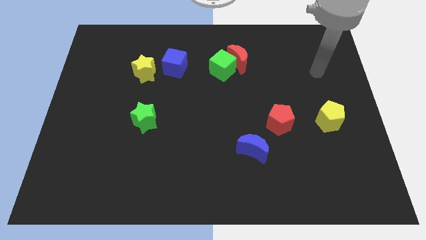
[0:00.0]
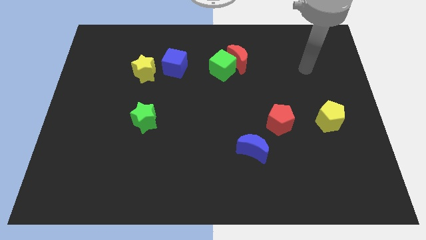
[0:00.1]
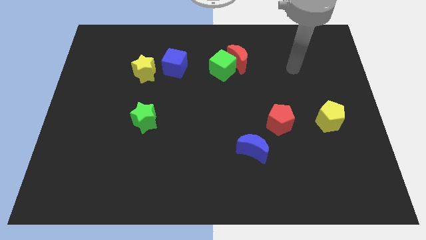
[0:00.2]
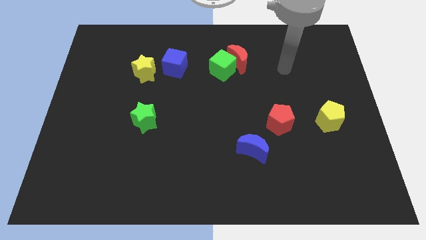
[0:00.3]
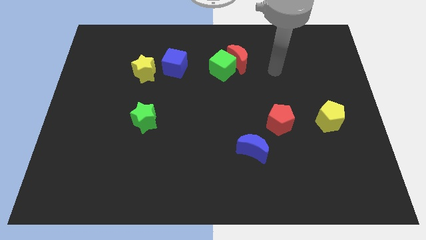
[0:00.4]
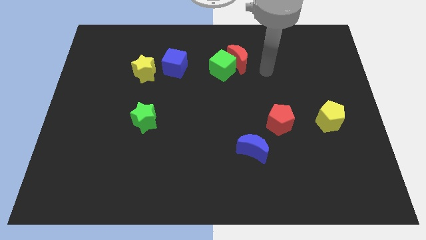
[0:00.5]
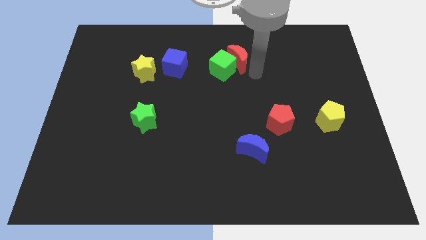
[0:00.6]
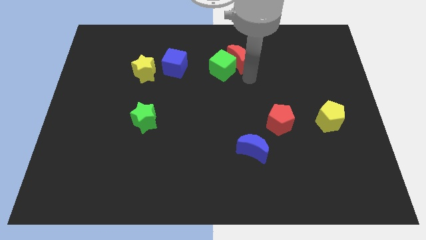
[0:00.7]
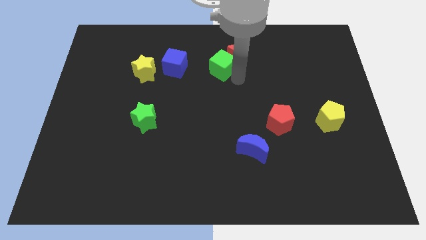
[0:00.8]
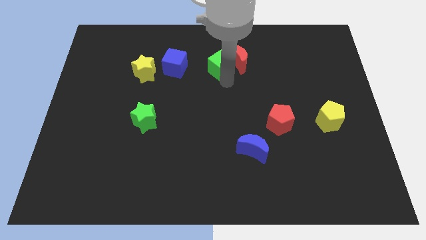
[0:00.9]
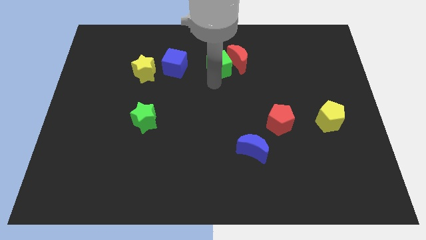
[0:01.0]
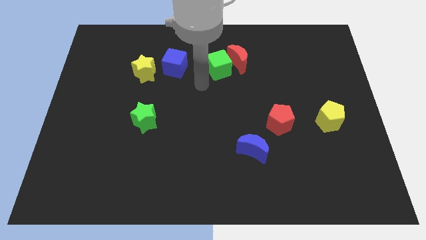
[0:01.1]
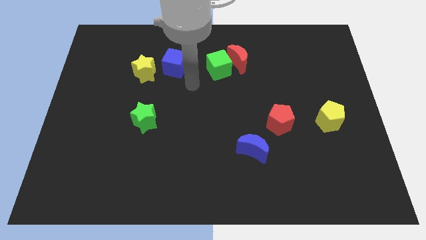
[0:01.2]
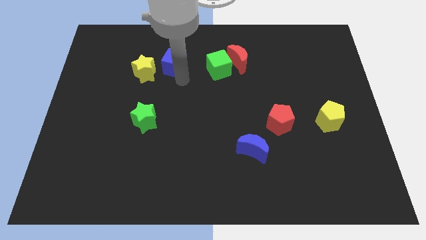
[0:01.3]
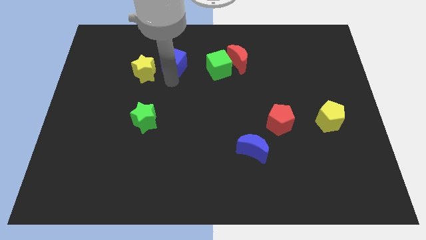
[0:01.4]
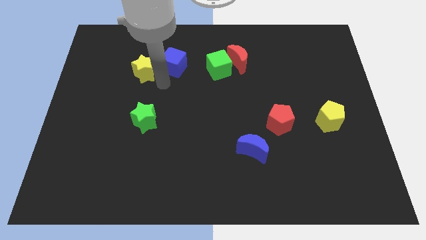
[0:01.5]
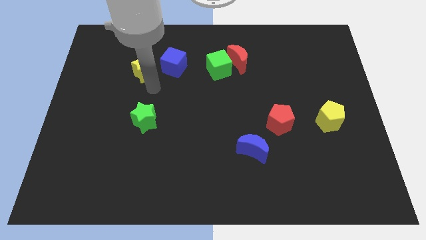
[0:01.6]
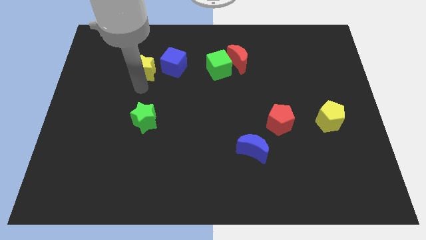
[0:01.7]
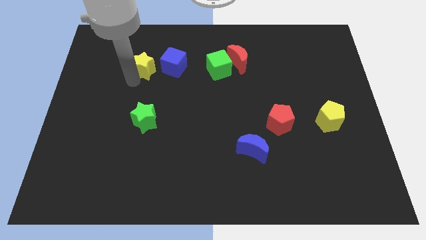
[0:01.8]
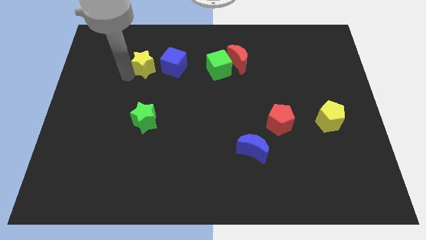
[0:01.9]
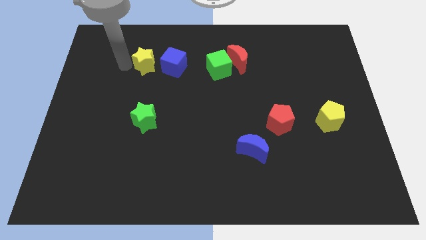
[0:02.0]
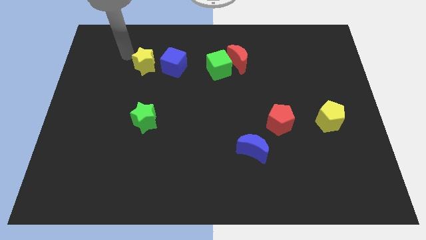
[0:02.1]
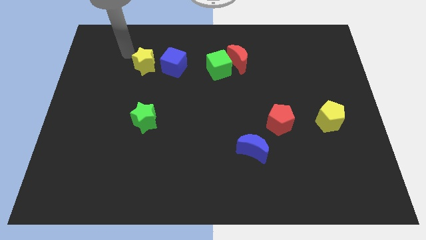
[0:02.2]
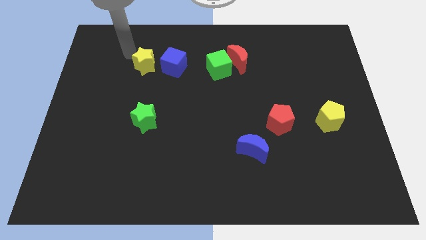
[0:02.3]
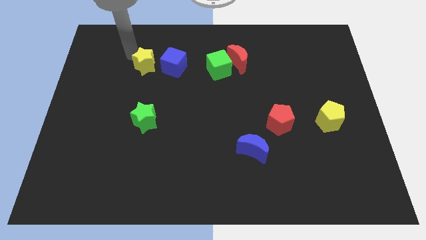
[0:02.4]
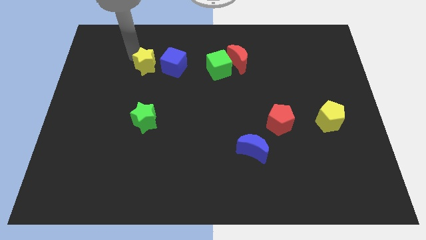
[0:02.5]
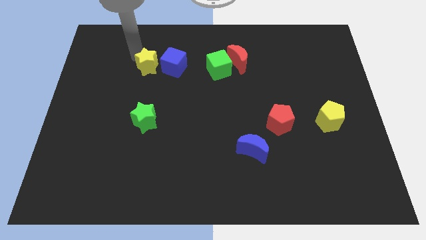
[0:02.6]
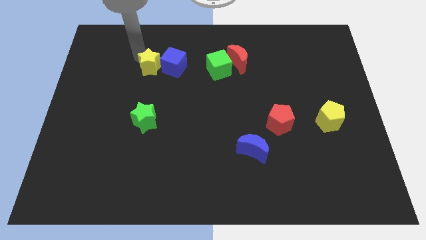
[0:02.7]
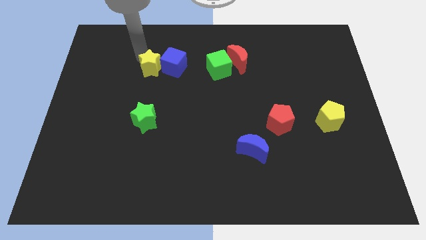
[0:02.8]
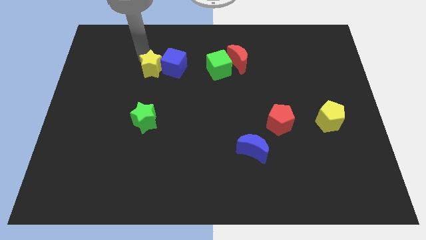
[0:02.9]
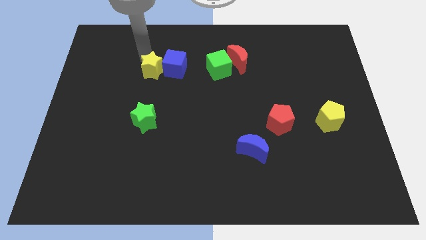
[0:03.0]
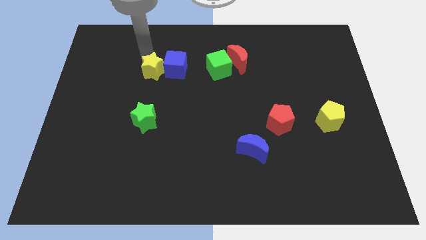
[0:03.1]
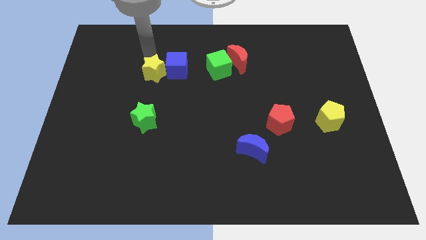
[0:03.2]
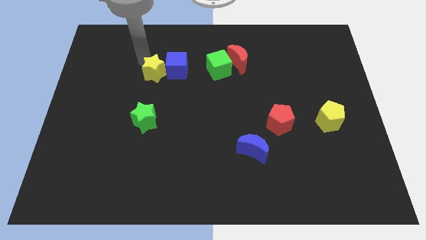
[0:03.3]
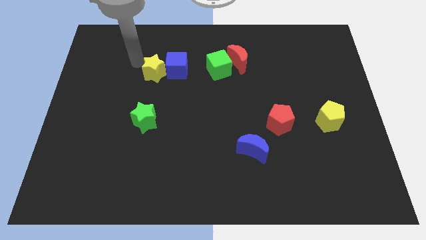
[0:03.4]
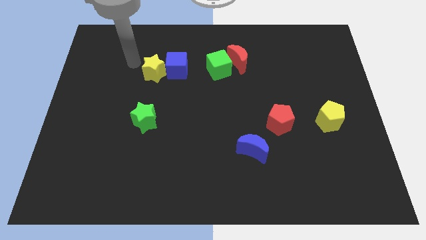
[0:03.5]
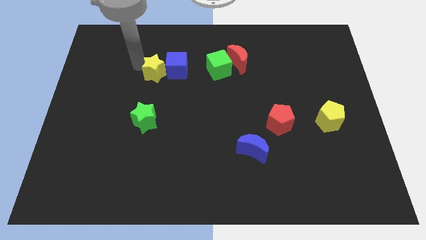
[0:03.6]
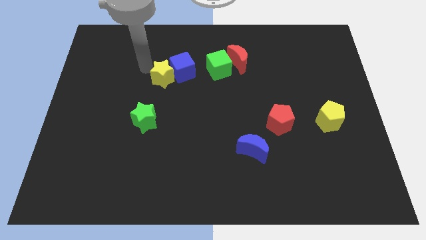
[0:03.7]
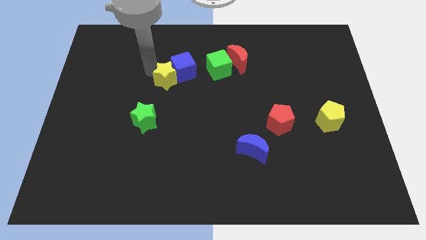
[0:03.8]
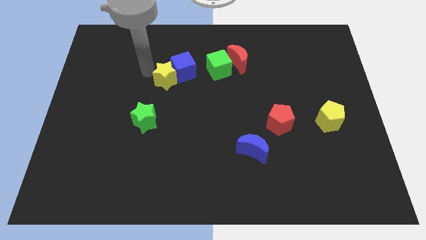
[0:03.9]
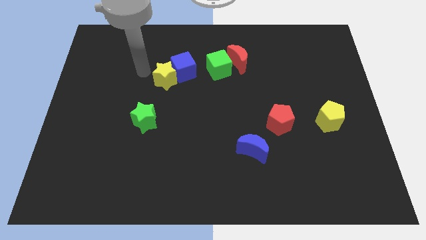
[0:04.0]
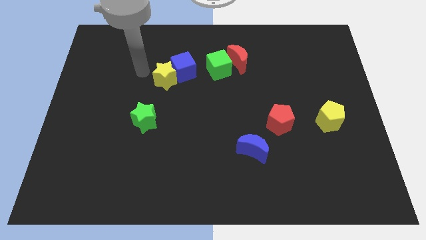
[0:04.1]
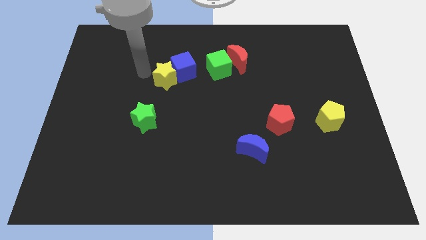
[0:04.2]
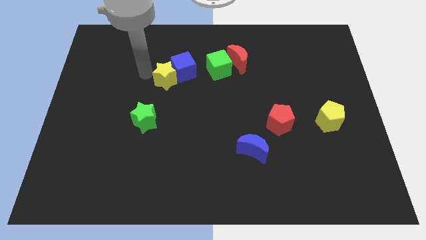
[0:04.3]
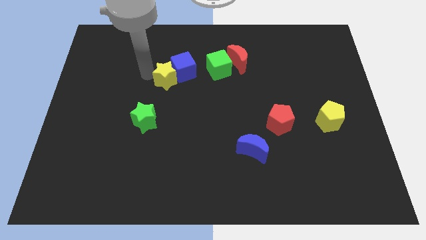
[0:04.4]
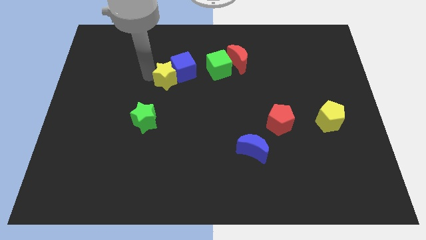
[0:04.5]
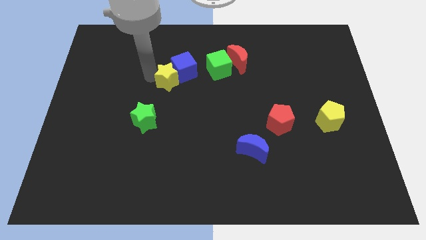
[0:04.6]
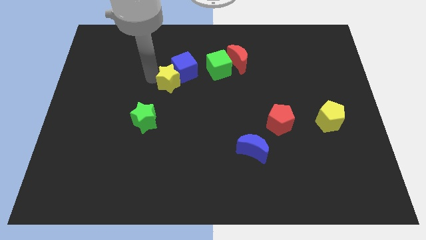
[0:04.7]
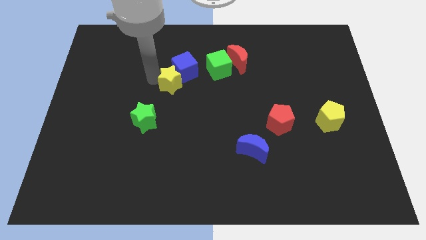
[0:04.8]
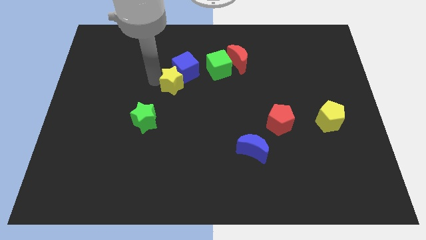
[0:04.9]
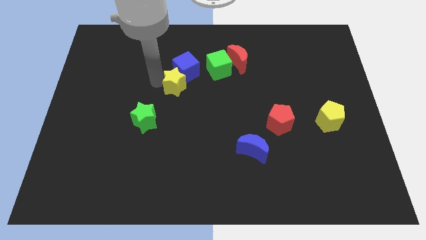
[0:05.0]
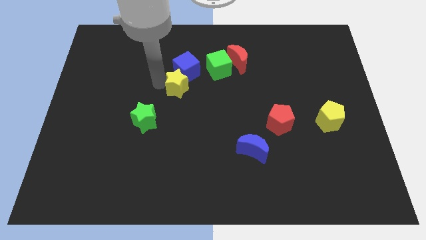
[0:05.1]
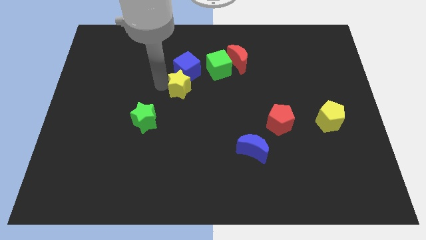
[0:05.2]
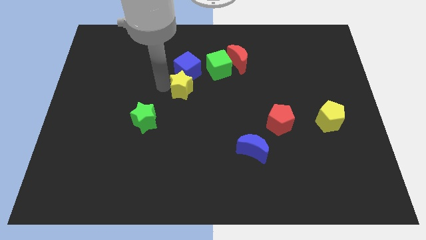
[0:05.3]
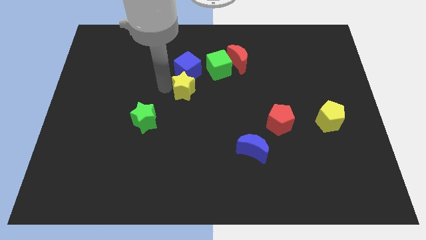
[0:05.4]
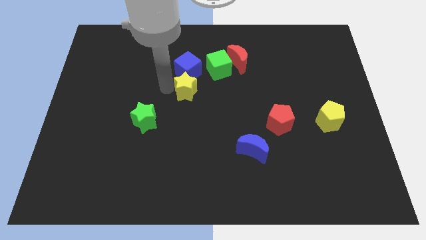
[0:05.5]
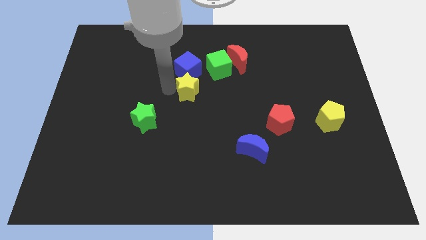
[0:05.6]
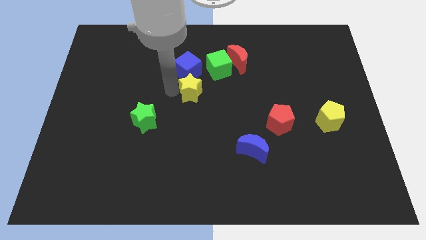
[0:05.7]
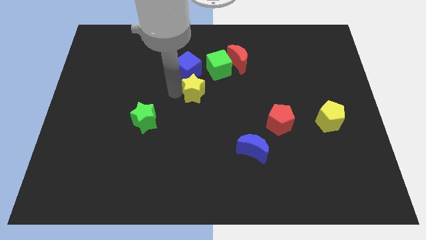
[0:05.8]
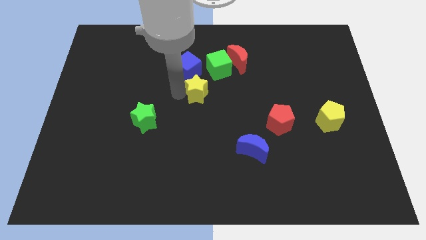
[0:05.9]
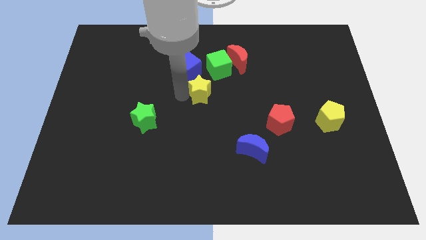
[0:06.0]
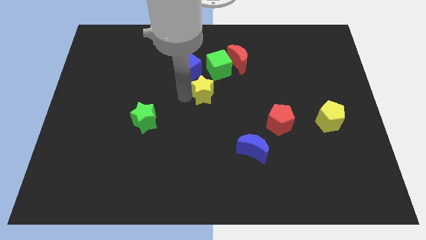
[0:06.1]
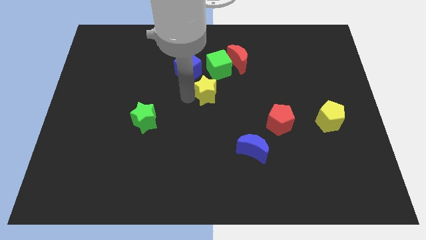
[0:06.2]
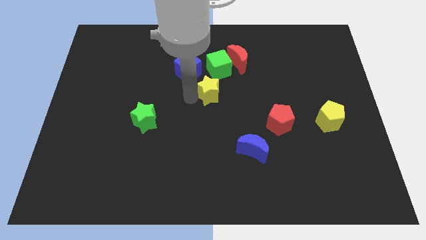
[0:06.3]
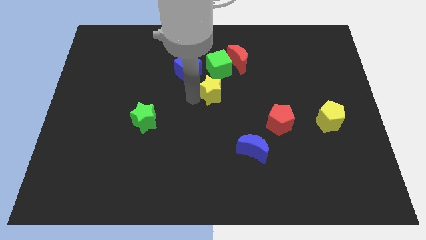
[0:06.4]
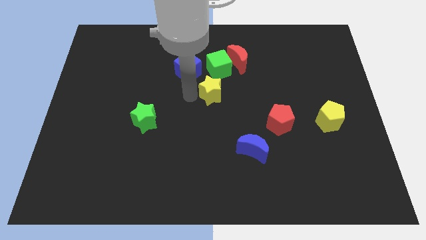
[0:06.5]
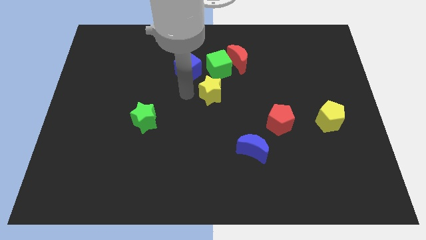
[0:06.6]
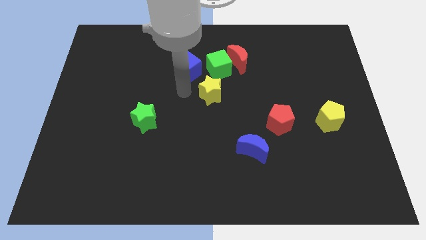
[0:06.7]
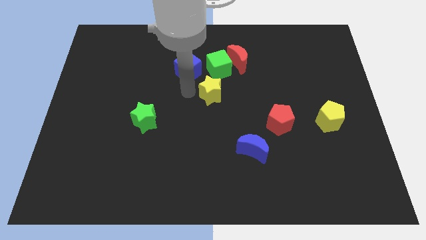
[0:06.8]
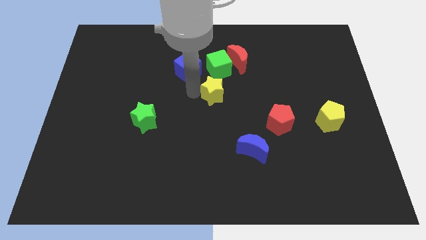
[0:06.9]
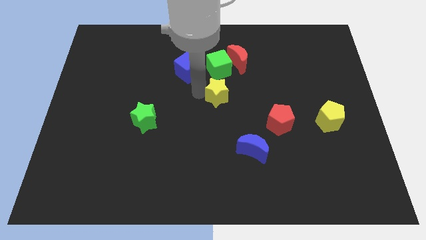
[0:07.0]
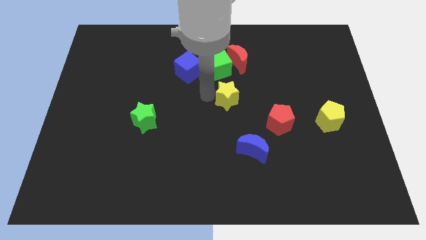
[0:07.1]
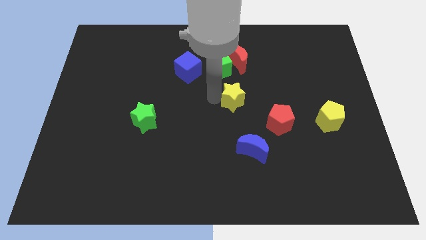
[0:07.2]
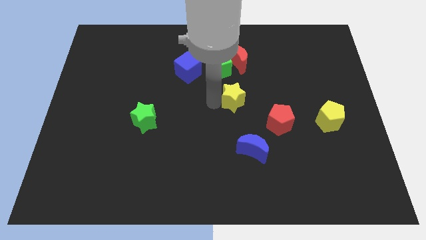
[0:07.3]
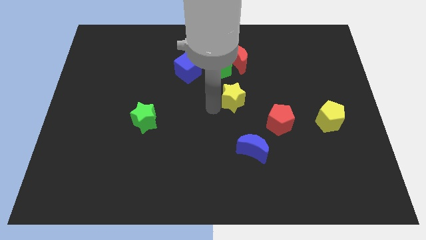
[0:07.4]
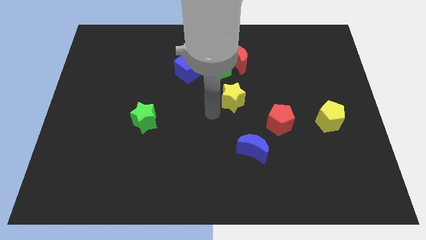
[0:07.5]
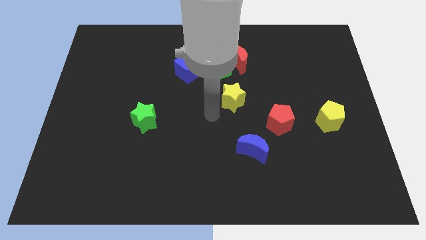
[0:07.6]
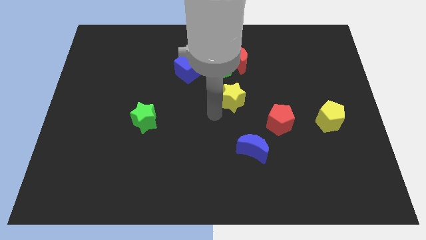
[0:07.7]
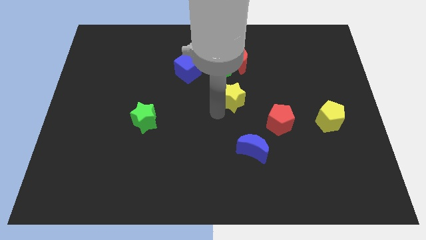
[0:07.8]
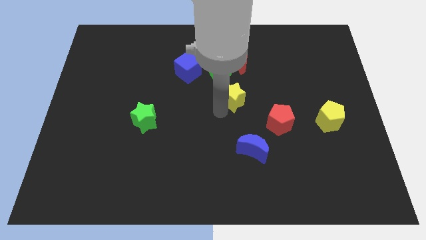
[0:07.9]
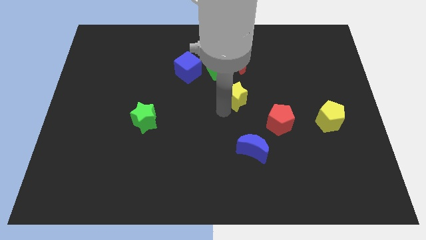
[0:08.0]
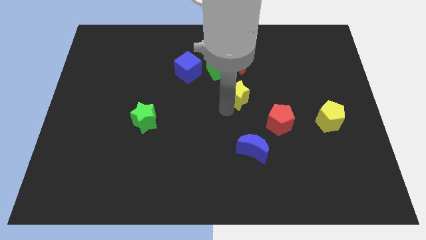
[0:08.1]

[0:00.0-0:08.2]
push the yellow star to the right
